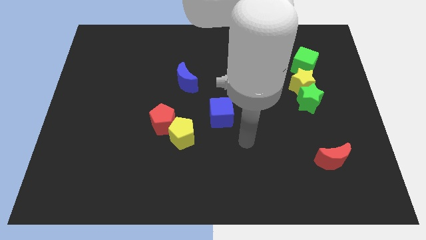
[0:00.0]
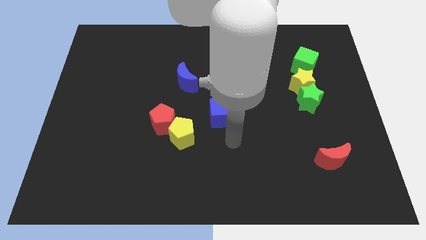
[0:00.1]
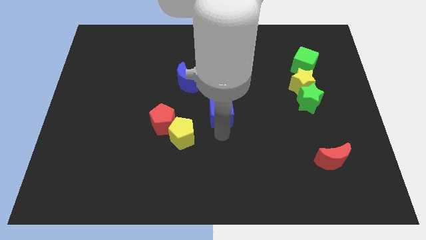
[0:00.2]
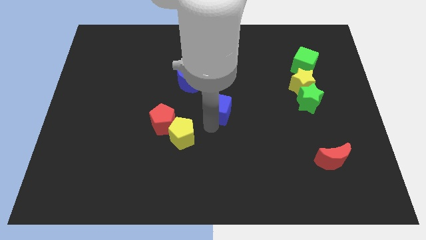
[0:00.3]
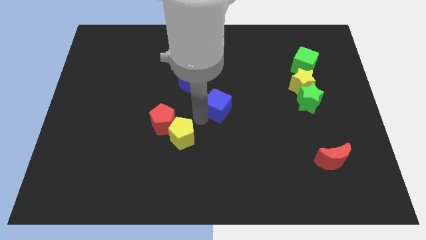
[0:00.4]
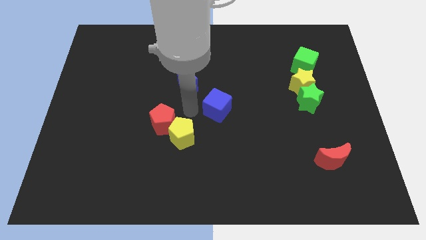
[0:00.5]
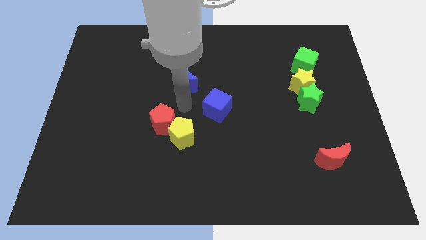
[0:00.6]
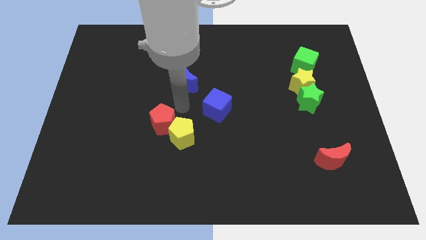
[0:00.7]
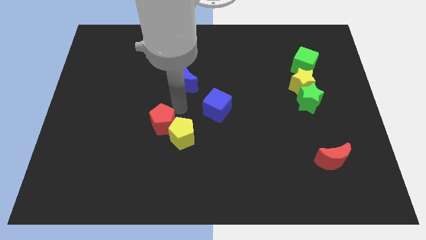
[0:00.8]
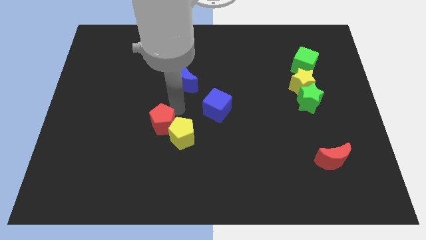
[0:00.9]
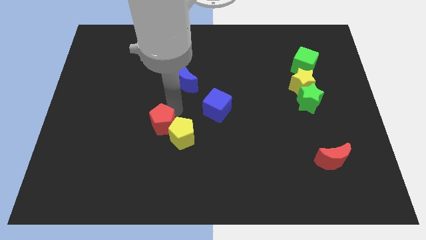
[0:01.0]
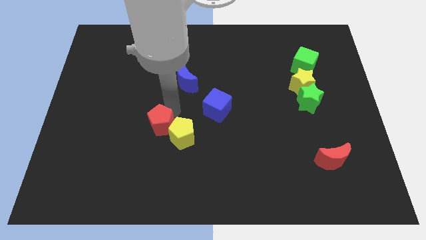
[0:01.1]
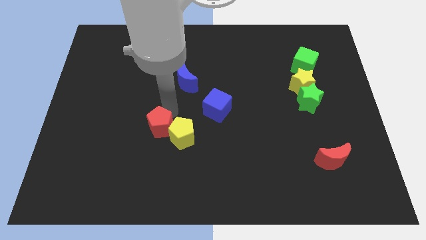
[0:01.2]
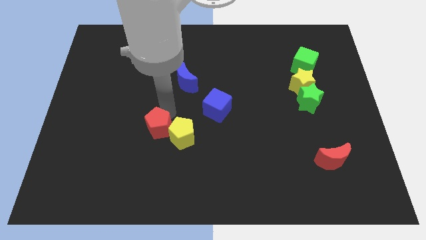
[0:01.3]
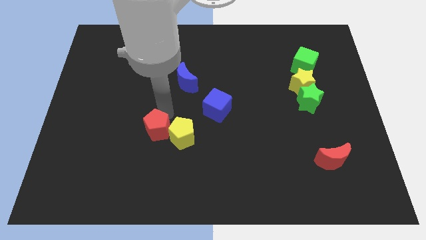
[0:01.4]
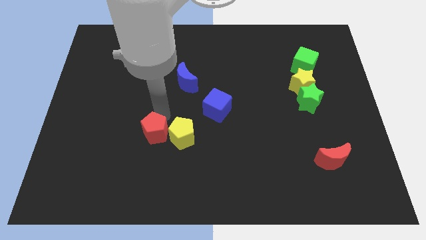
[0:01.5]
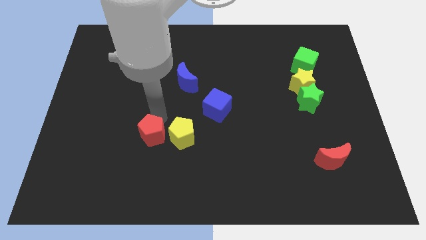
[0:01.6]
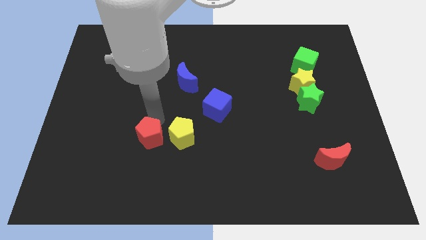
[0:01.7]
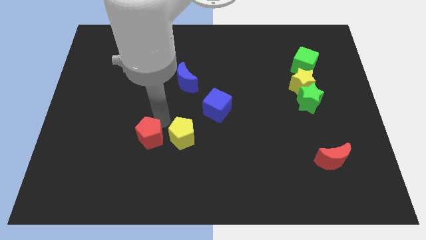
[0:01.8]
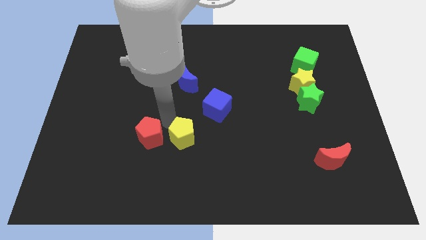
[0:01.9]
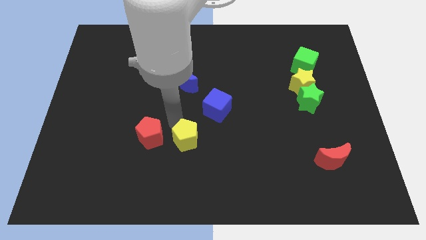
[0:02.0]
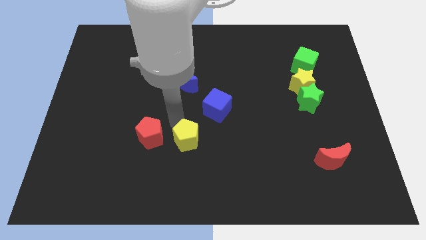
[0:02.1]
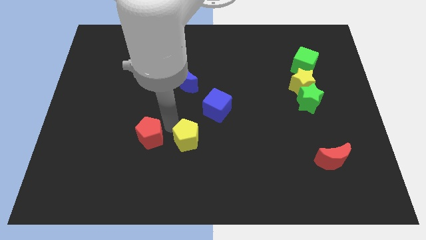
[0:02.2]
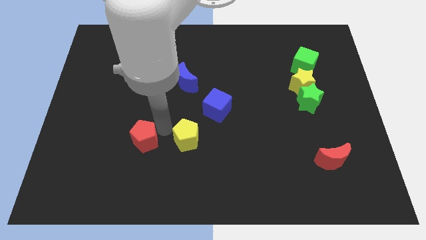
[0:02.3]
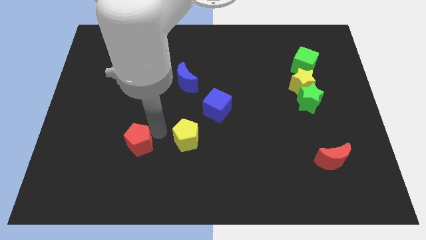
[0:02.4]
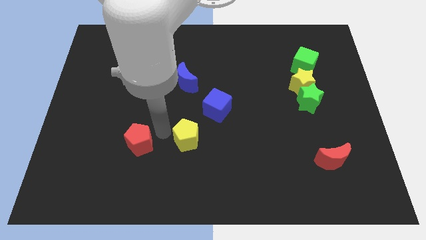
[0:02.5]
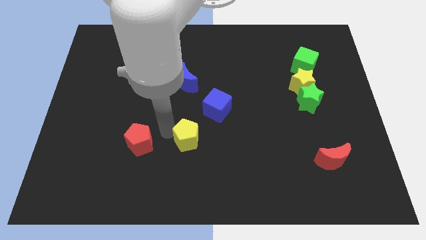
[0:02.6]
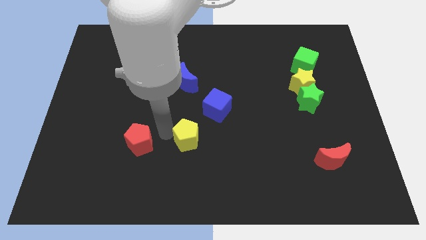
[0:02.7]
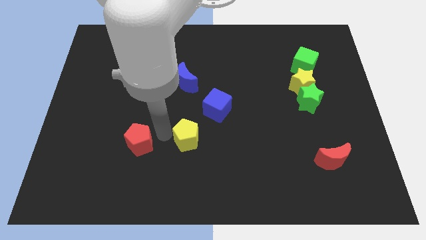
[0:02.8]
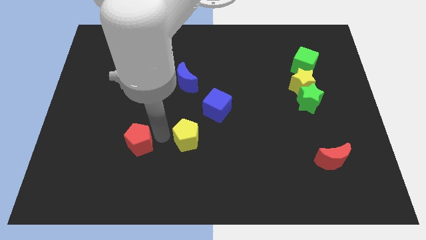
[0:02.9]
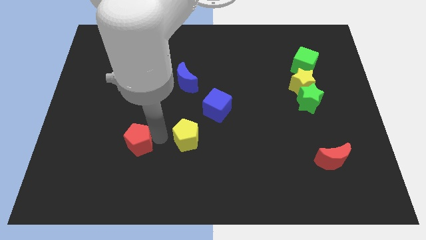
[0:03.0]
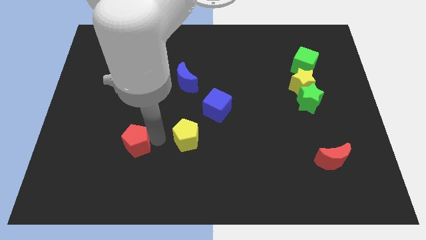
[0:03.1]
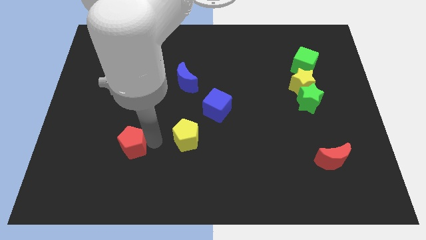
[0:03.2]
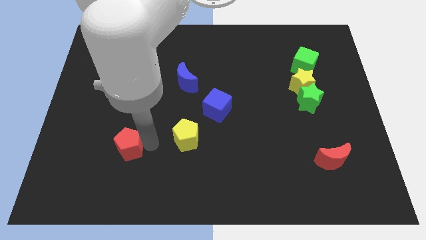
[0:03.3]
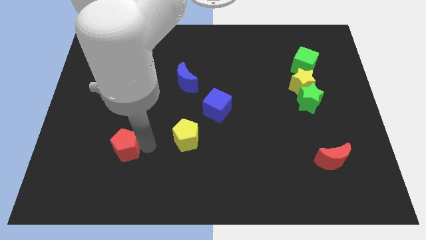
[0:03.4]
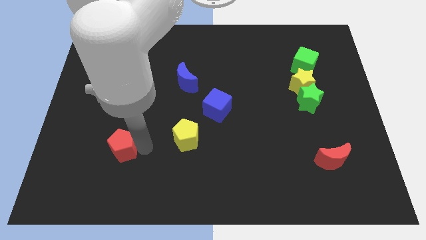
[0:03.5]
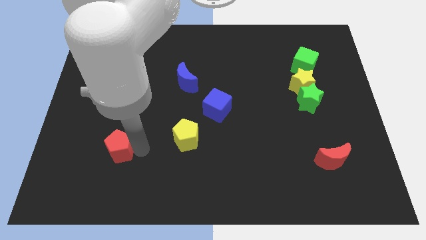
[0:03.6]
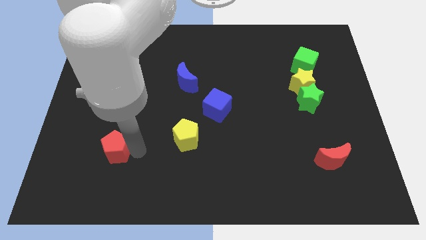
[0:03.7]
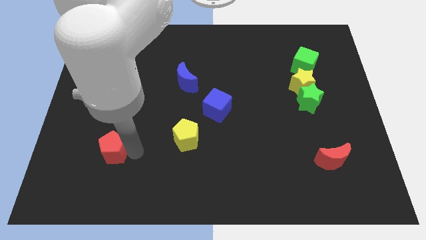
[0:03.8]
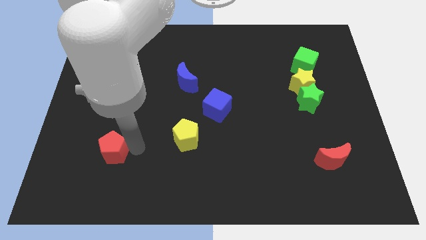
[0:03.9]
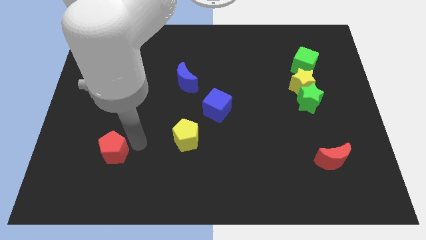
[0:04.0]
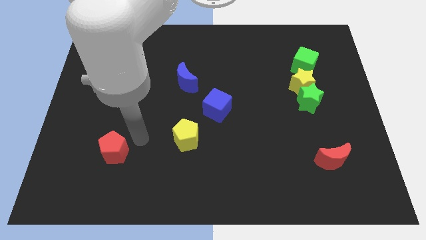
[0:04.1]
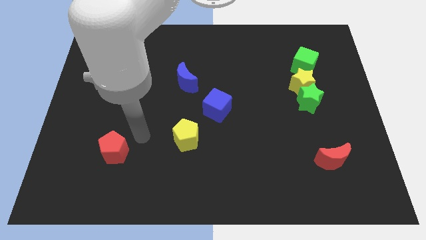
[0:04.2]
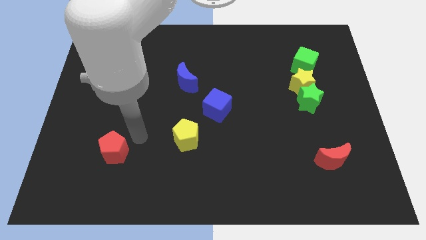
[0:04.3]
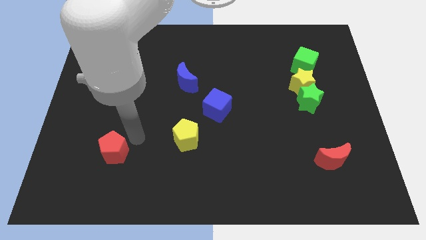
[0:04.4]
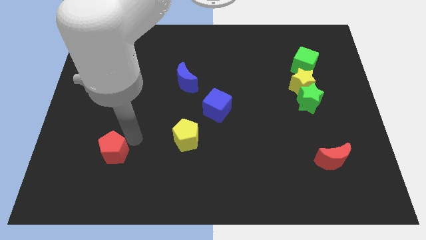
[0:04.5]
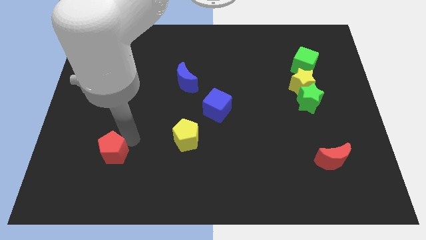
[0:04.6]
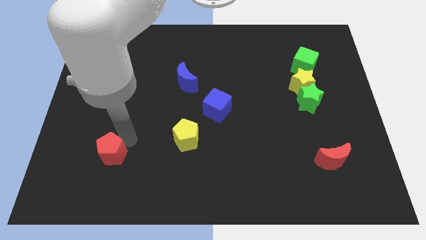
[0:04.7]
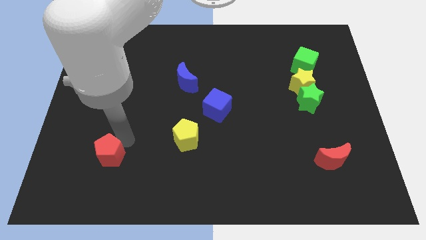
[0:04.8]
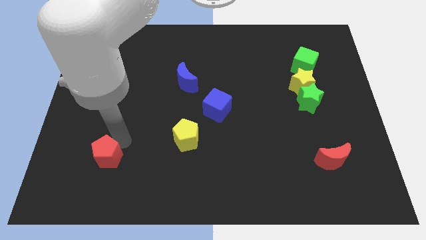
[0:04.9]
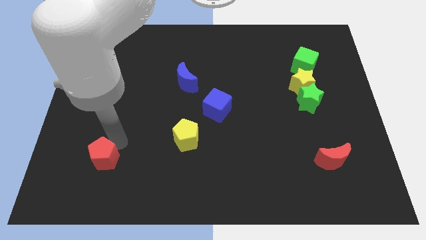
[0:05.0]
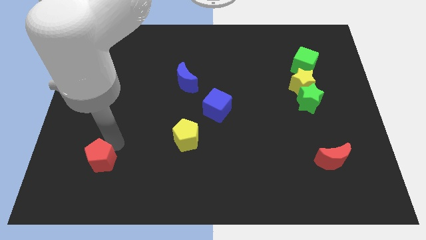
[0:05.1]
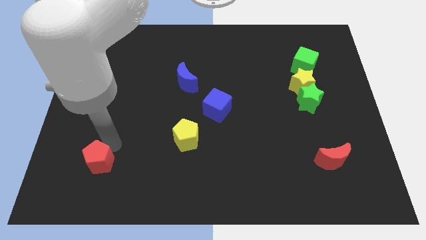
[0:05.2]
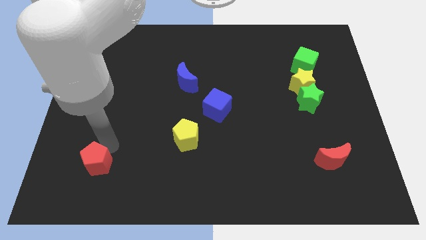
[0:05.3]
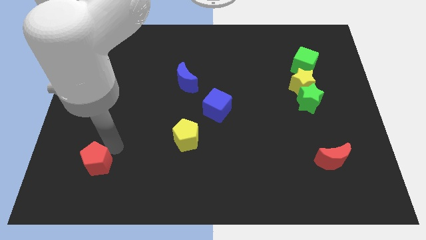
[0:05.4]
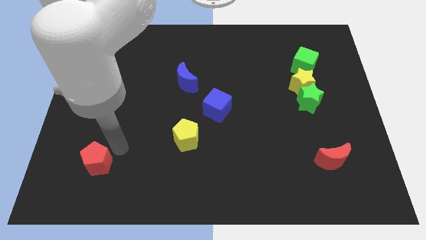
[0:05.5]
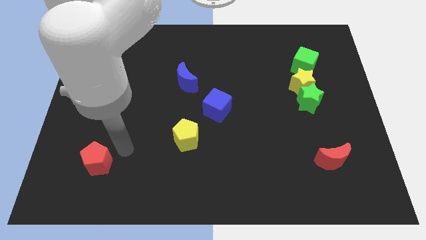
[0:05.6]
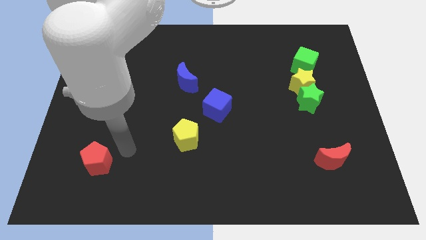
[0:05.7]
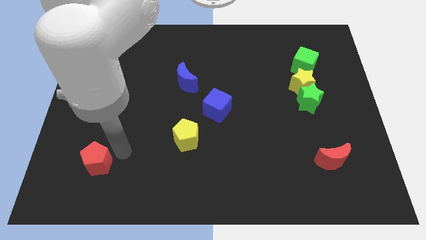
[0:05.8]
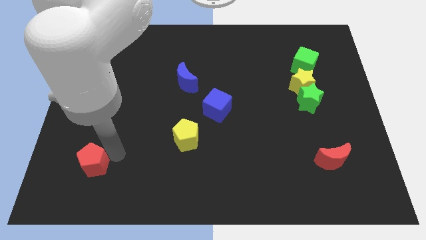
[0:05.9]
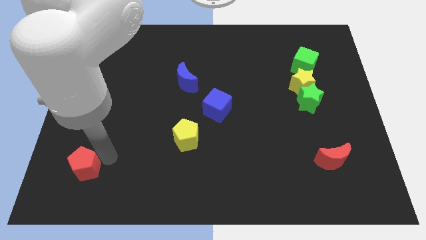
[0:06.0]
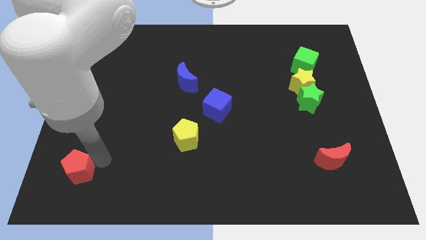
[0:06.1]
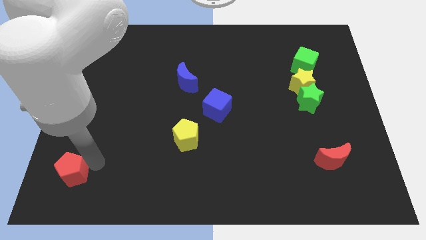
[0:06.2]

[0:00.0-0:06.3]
put the red pentagon to the bottom left corner

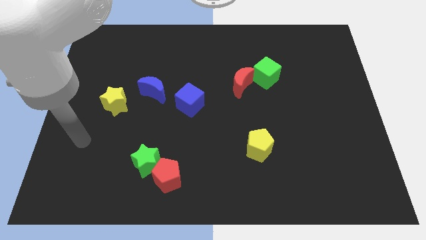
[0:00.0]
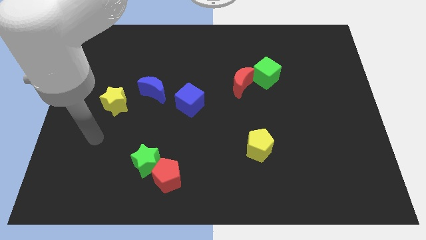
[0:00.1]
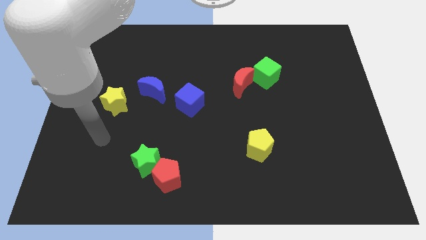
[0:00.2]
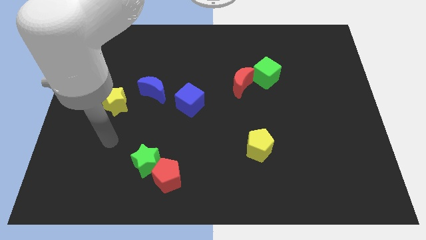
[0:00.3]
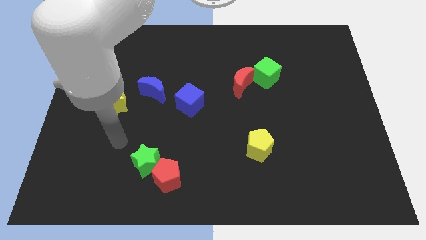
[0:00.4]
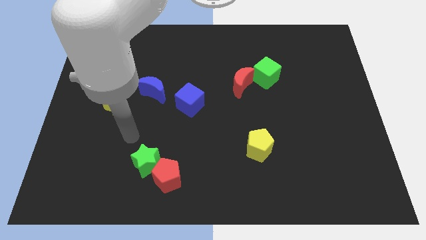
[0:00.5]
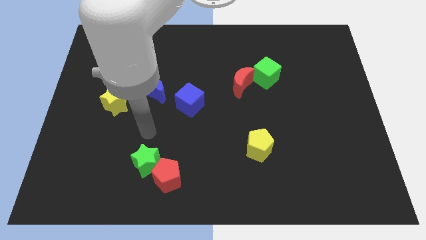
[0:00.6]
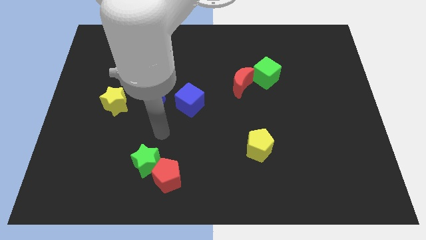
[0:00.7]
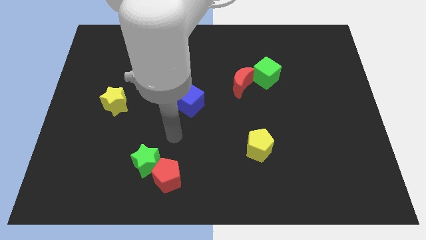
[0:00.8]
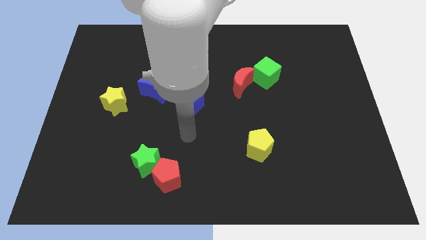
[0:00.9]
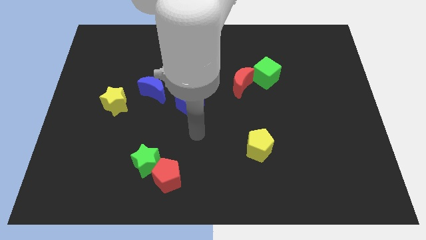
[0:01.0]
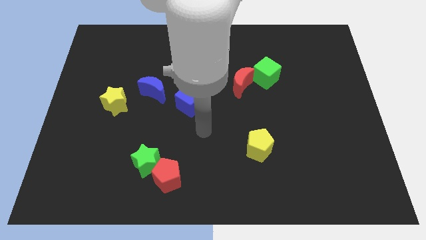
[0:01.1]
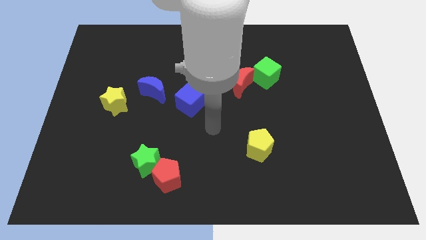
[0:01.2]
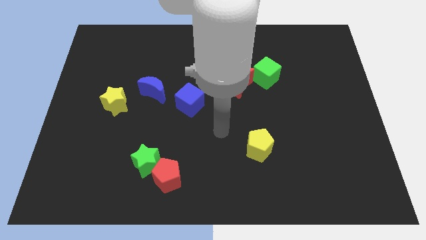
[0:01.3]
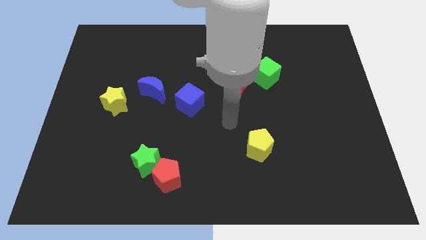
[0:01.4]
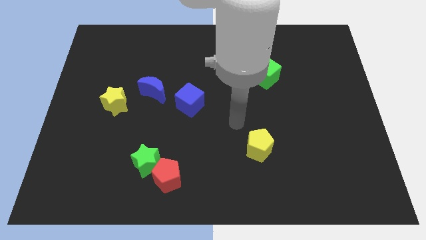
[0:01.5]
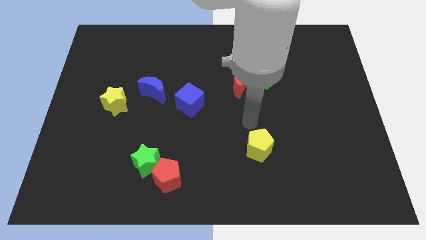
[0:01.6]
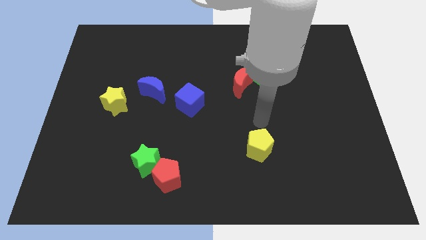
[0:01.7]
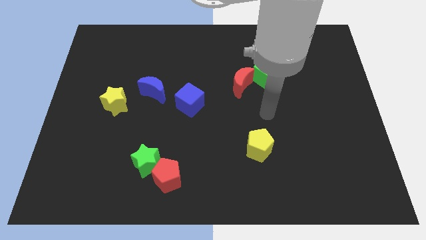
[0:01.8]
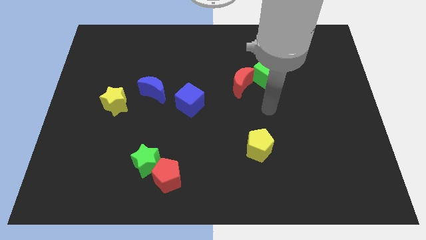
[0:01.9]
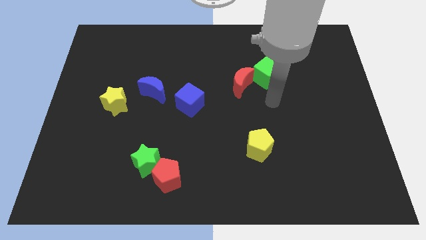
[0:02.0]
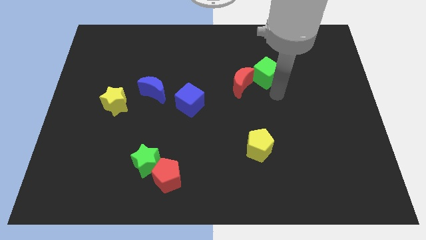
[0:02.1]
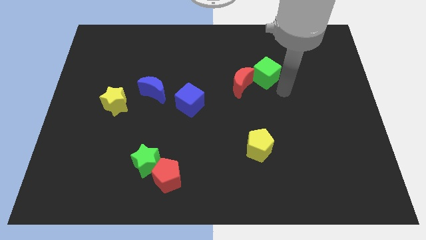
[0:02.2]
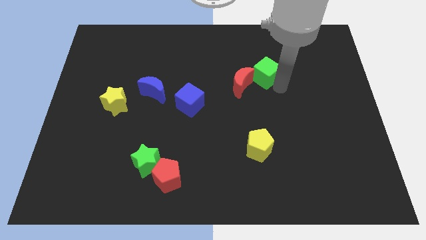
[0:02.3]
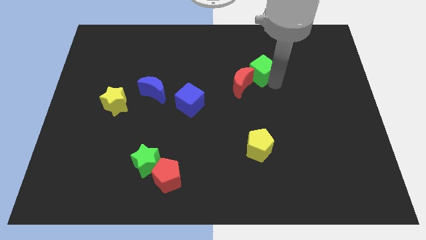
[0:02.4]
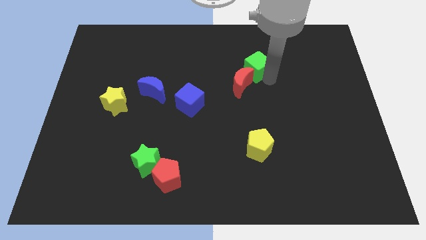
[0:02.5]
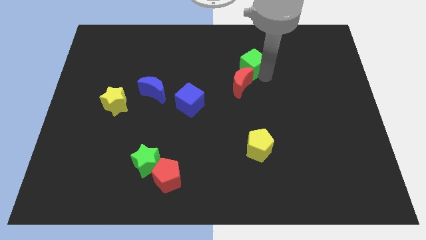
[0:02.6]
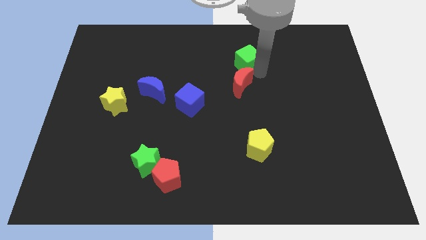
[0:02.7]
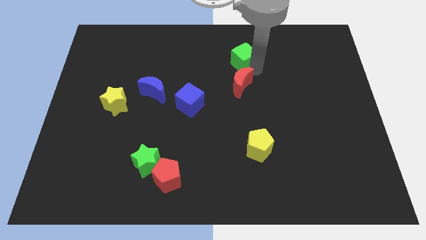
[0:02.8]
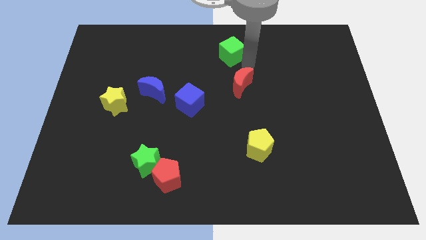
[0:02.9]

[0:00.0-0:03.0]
slide the green cube to the towards your base
